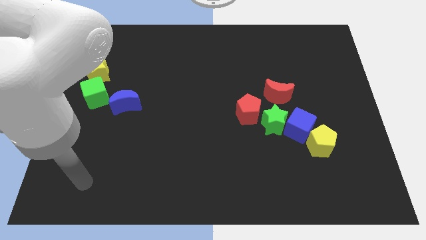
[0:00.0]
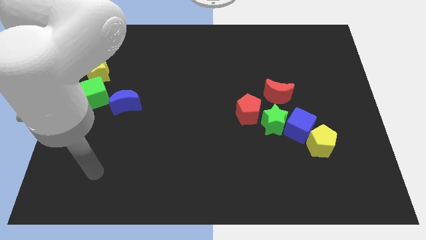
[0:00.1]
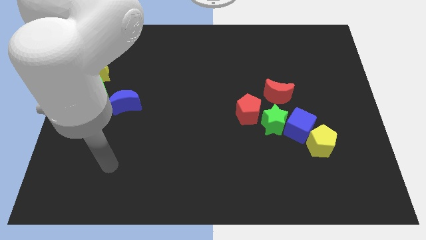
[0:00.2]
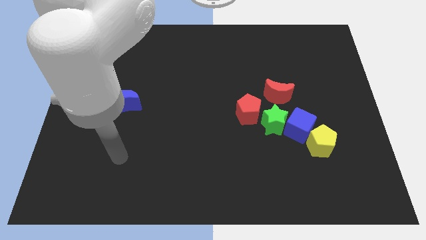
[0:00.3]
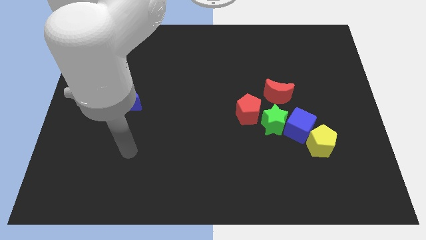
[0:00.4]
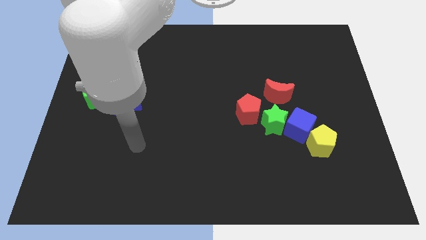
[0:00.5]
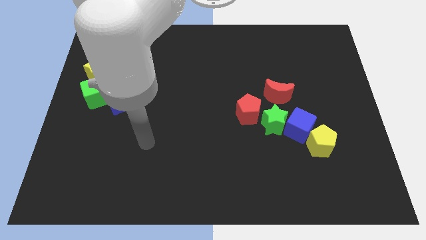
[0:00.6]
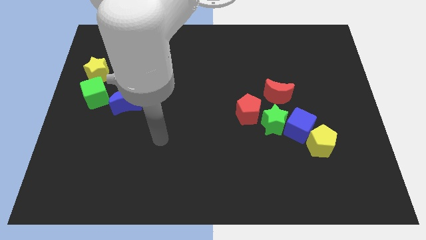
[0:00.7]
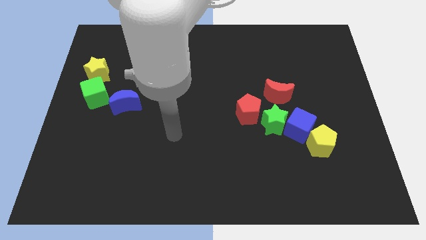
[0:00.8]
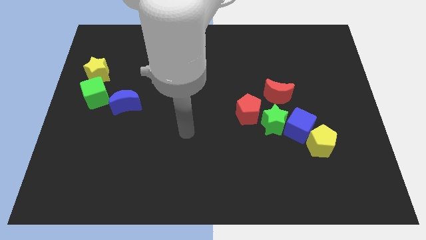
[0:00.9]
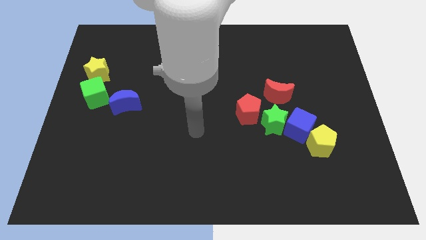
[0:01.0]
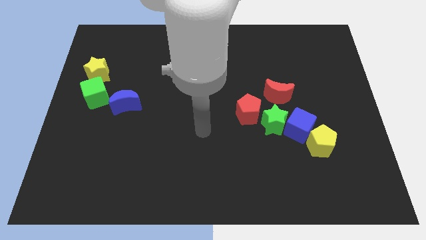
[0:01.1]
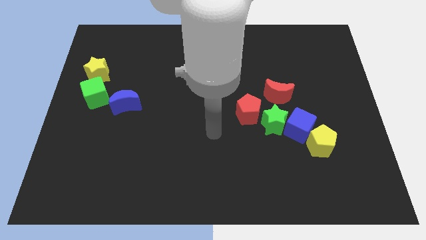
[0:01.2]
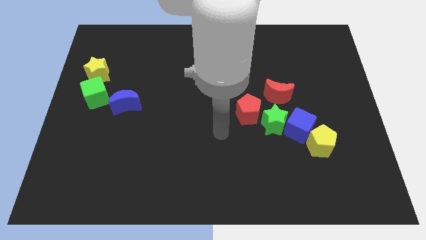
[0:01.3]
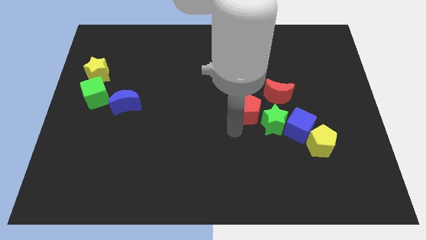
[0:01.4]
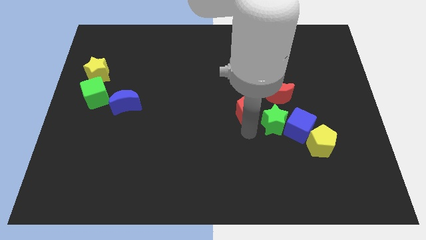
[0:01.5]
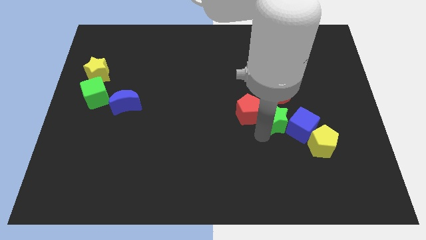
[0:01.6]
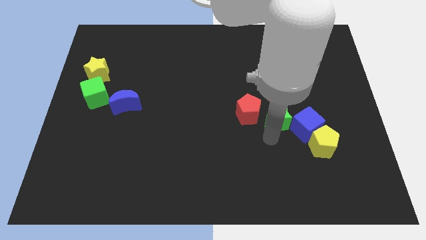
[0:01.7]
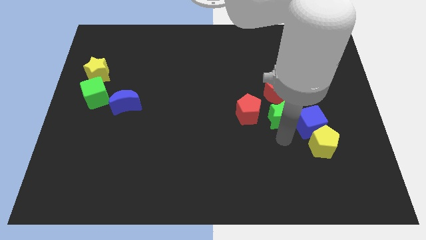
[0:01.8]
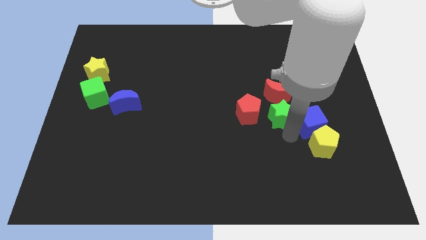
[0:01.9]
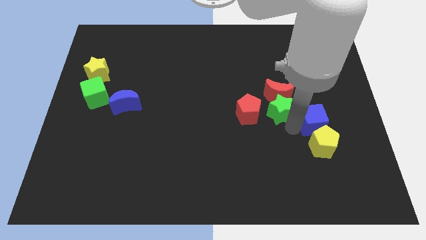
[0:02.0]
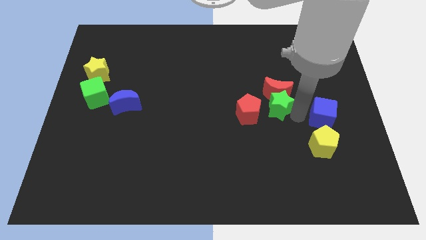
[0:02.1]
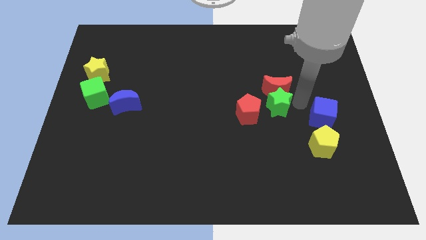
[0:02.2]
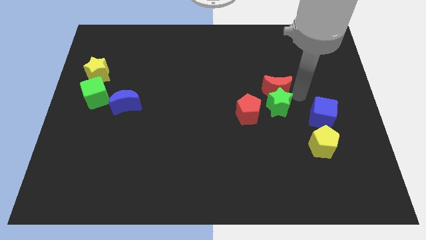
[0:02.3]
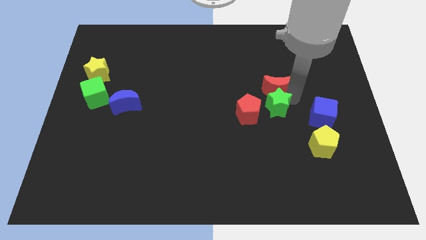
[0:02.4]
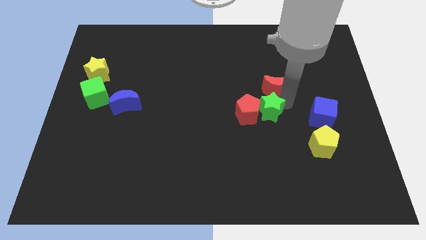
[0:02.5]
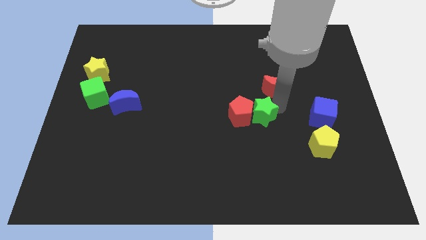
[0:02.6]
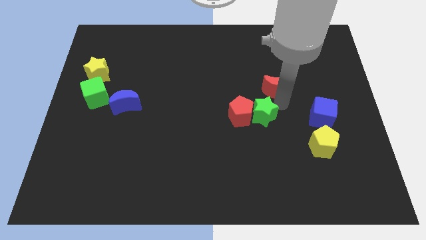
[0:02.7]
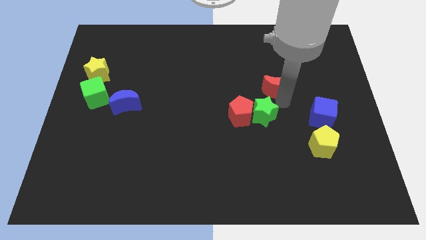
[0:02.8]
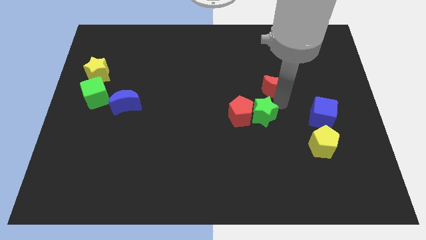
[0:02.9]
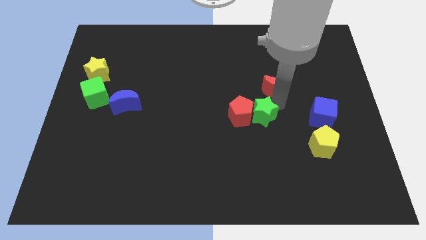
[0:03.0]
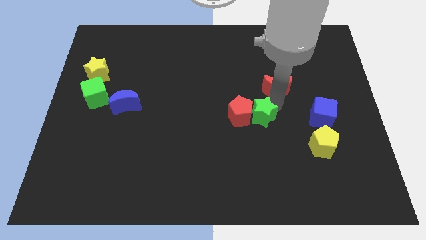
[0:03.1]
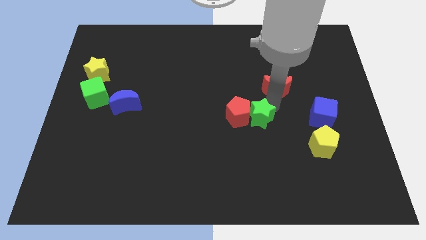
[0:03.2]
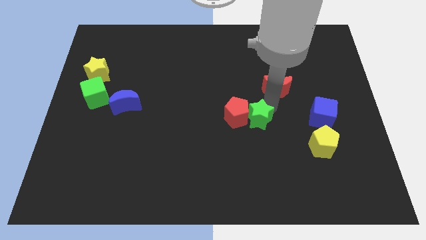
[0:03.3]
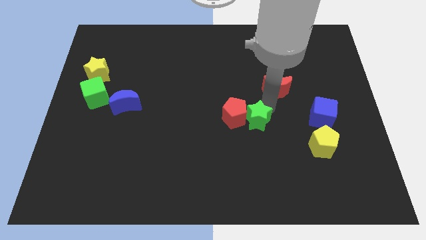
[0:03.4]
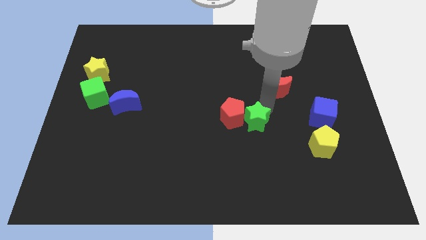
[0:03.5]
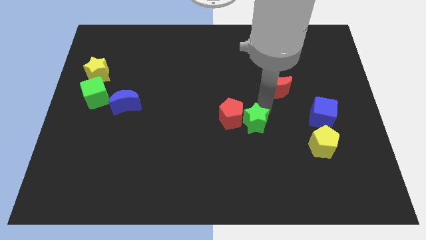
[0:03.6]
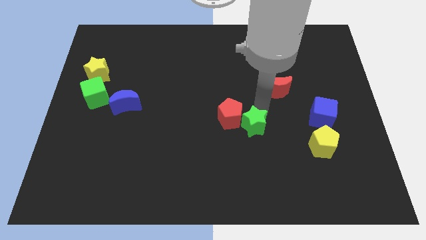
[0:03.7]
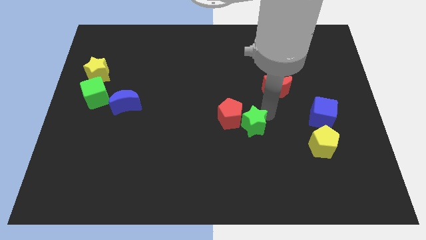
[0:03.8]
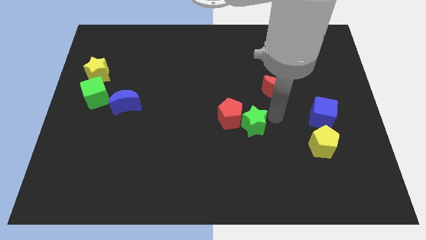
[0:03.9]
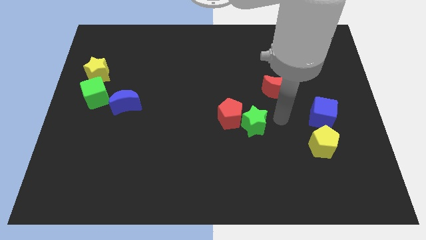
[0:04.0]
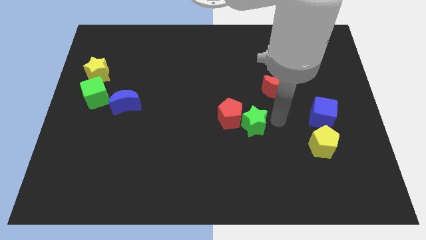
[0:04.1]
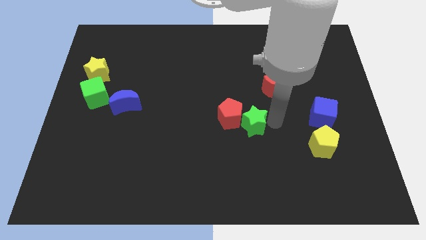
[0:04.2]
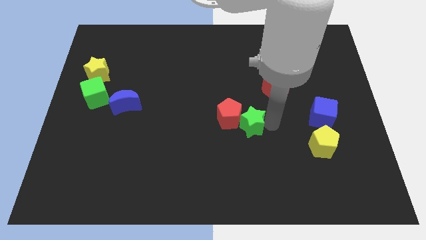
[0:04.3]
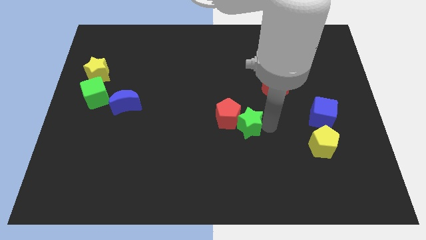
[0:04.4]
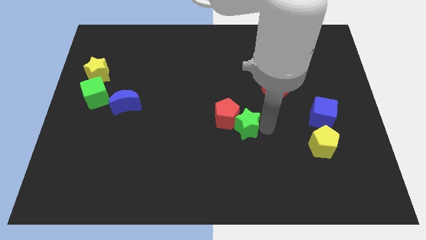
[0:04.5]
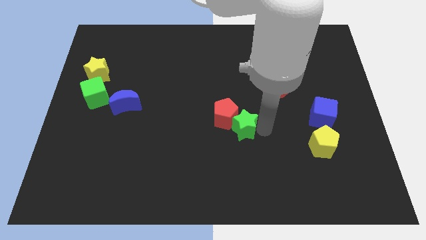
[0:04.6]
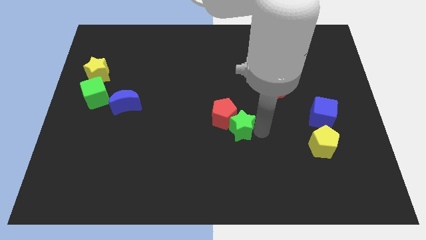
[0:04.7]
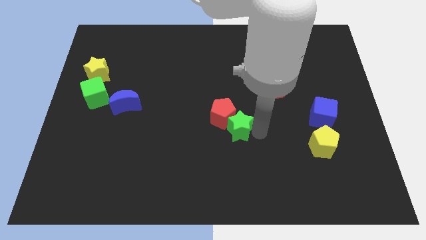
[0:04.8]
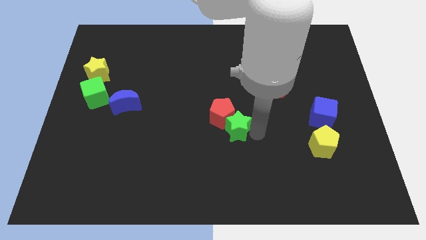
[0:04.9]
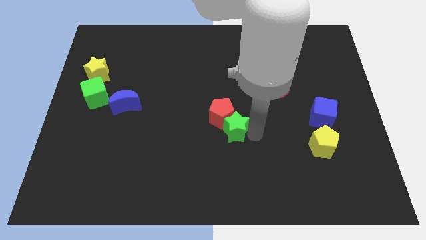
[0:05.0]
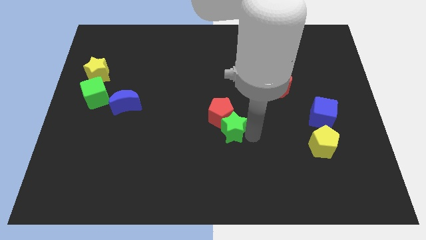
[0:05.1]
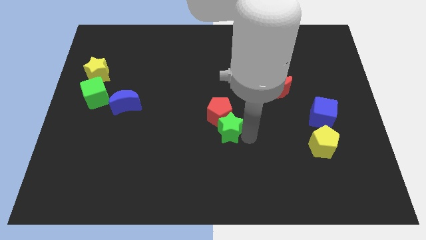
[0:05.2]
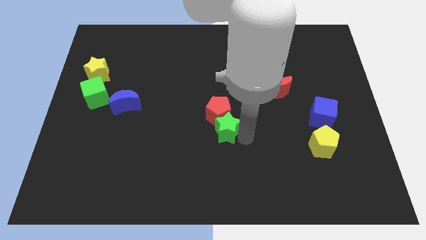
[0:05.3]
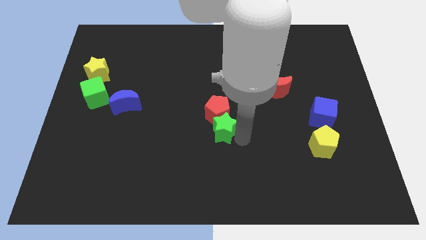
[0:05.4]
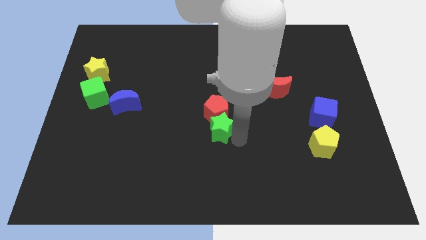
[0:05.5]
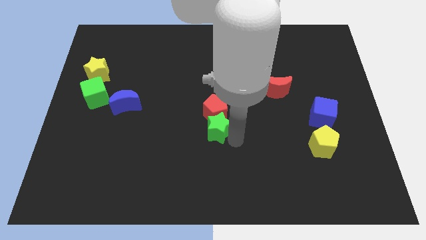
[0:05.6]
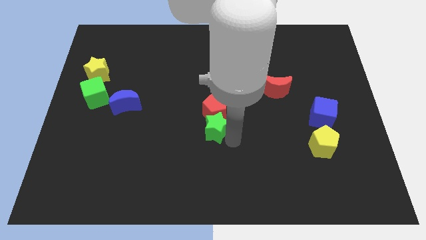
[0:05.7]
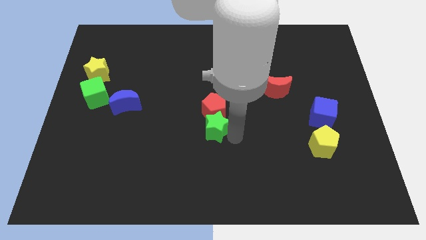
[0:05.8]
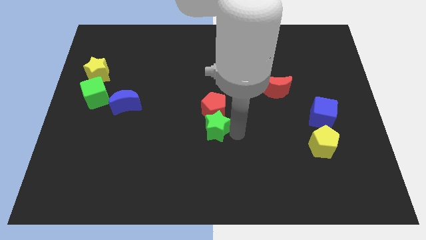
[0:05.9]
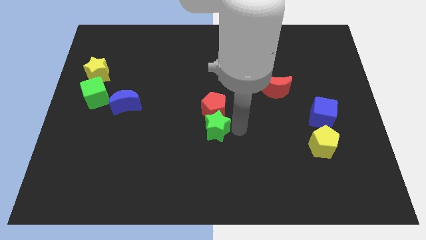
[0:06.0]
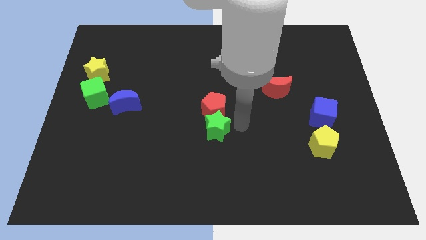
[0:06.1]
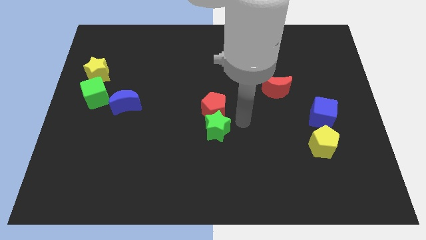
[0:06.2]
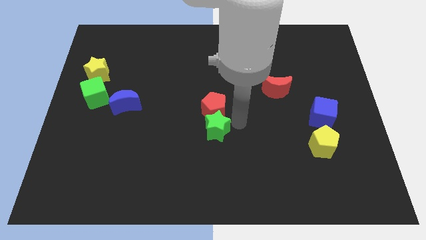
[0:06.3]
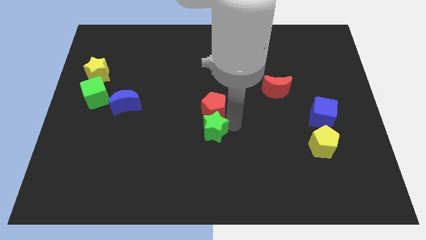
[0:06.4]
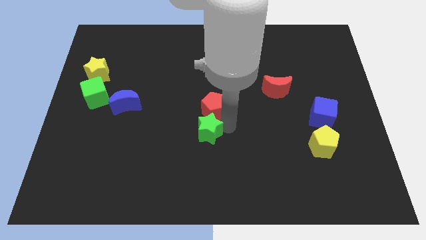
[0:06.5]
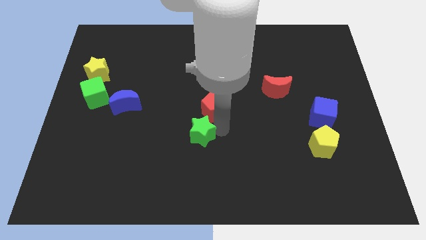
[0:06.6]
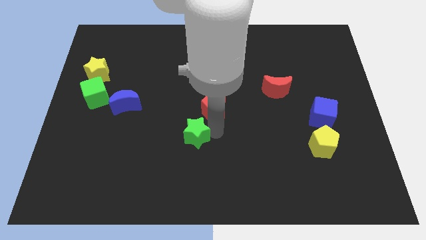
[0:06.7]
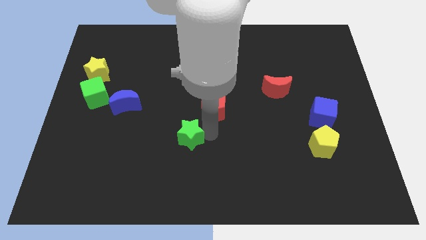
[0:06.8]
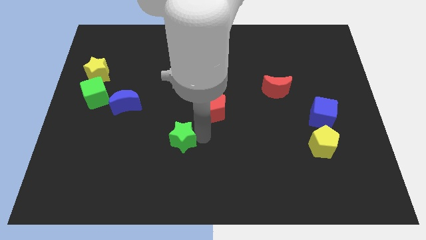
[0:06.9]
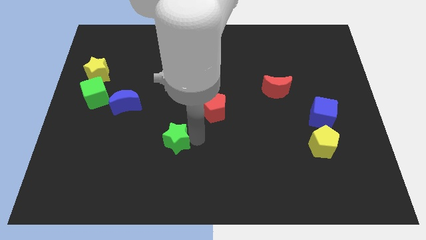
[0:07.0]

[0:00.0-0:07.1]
slide the green star left

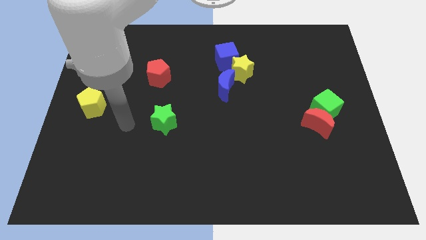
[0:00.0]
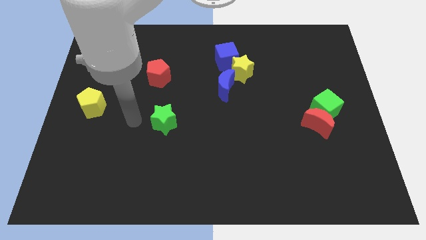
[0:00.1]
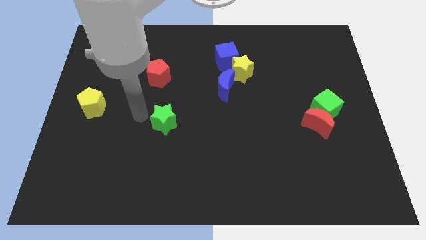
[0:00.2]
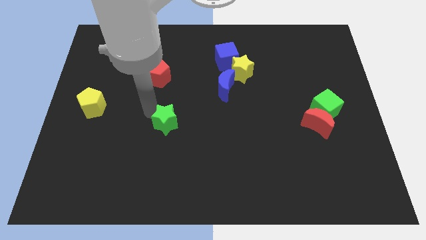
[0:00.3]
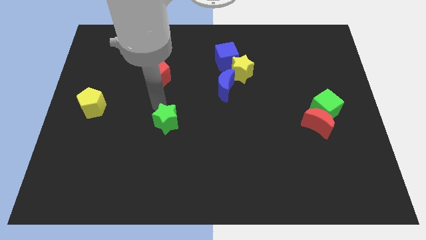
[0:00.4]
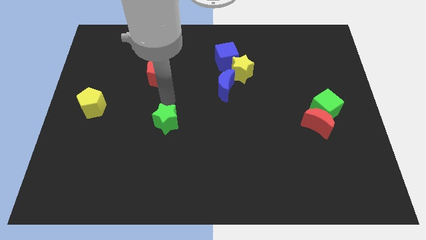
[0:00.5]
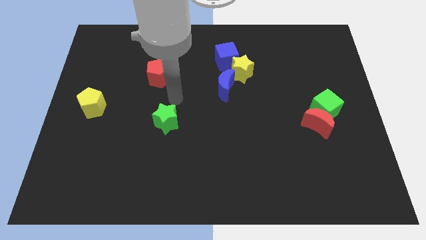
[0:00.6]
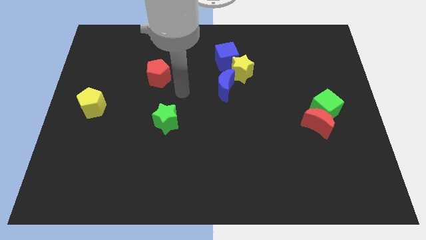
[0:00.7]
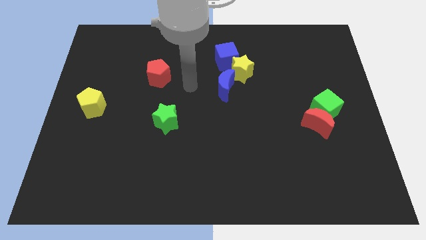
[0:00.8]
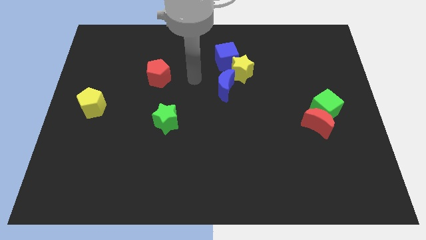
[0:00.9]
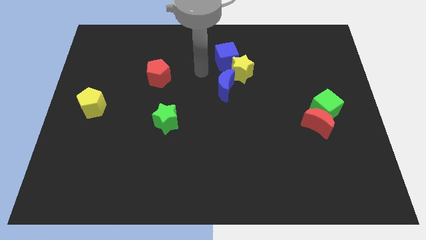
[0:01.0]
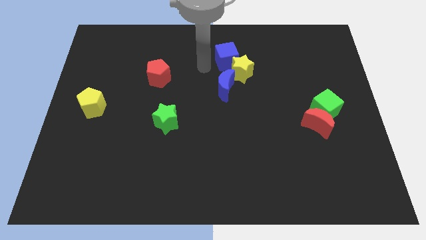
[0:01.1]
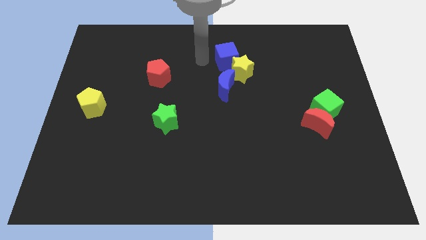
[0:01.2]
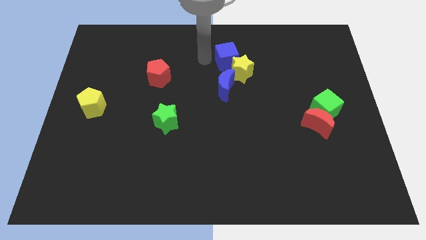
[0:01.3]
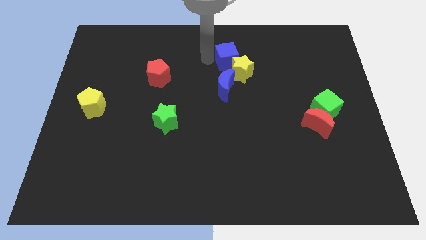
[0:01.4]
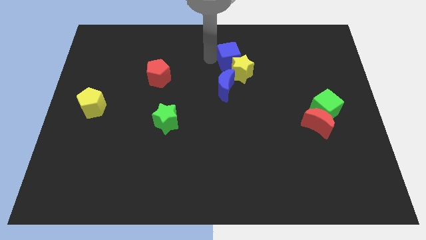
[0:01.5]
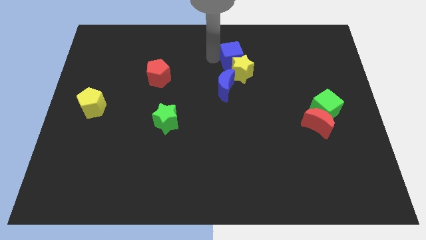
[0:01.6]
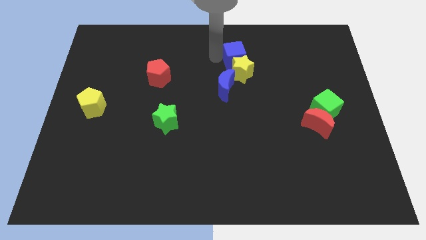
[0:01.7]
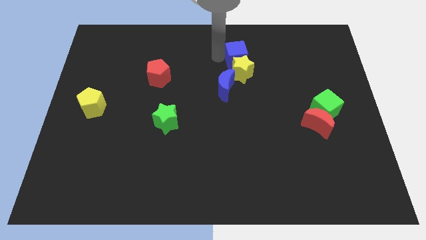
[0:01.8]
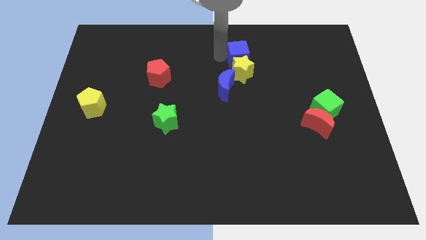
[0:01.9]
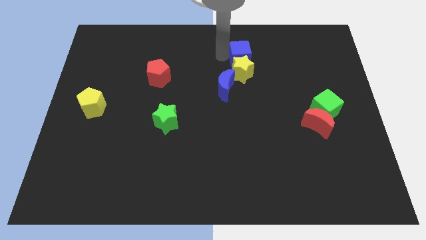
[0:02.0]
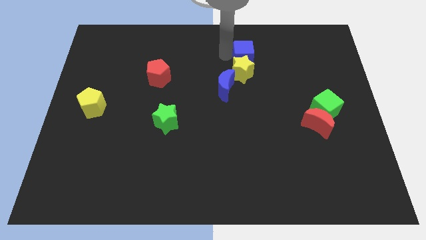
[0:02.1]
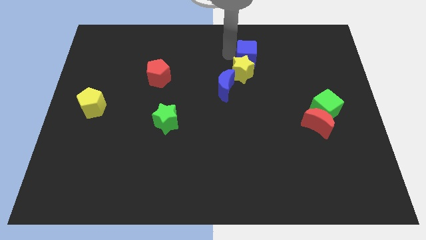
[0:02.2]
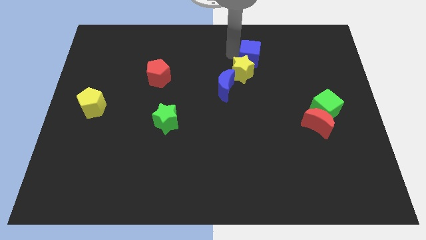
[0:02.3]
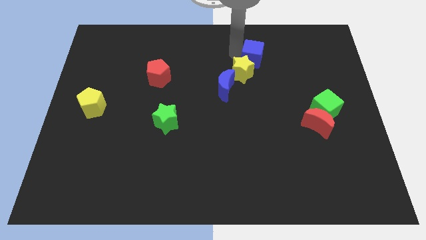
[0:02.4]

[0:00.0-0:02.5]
slightly move the blue cube to the right
